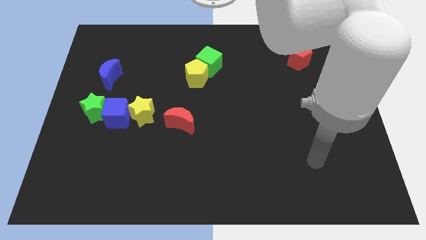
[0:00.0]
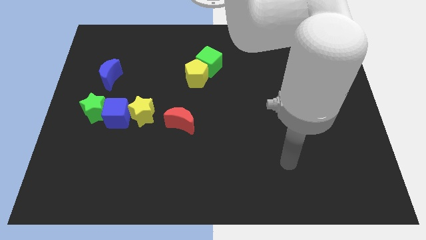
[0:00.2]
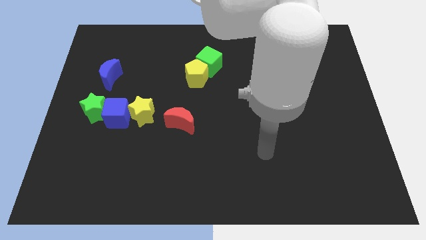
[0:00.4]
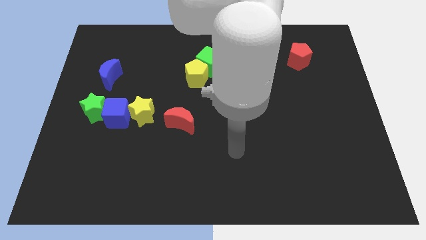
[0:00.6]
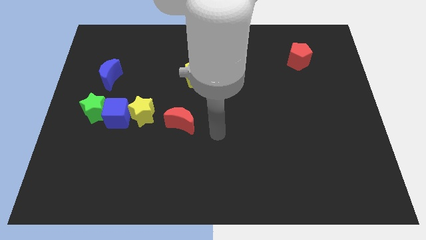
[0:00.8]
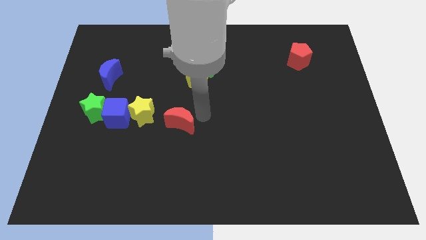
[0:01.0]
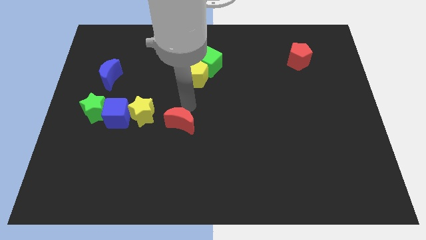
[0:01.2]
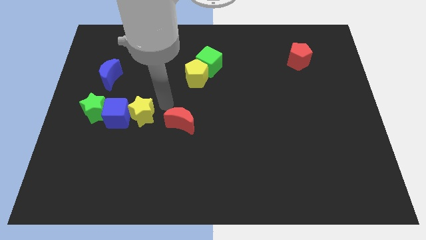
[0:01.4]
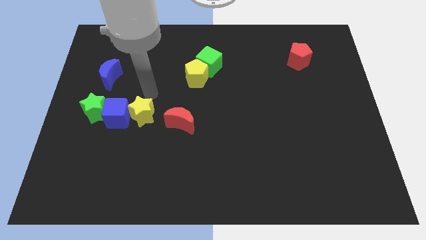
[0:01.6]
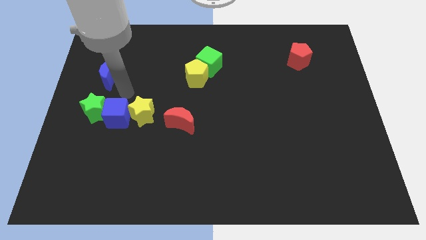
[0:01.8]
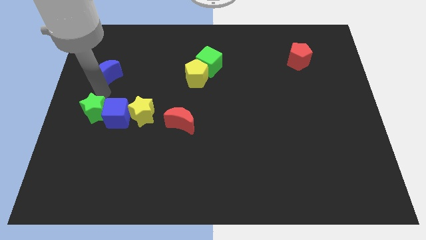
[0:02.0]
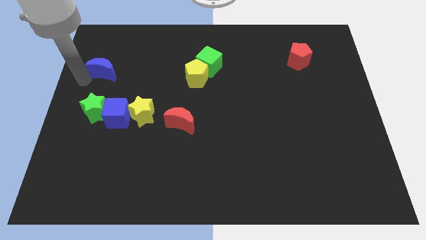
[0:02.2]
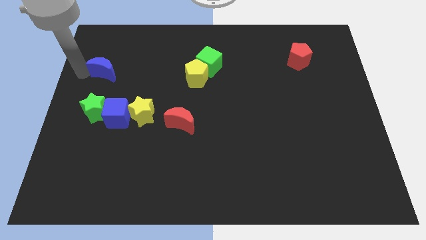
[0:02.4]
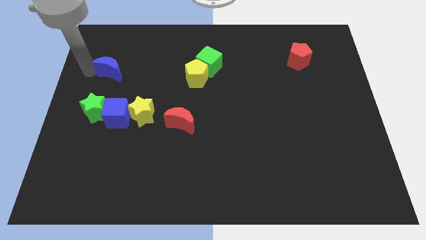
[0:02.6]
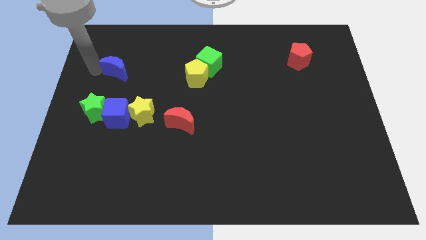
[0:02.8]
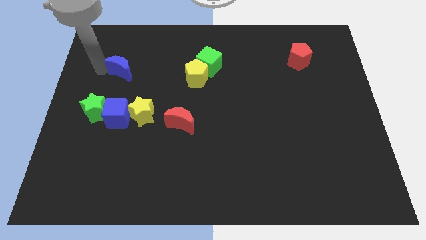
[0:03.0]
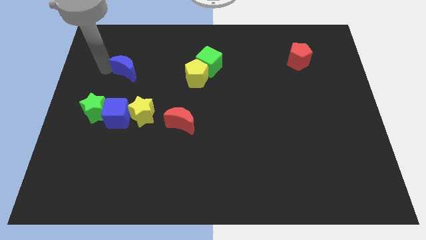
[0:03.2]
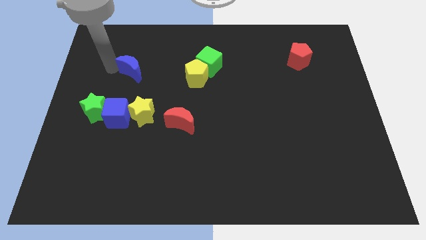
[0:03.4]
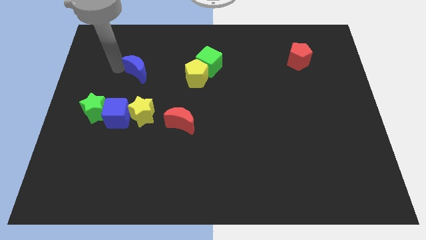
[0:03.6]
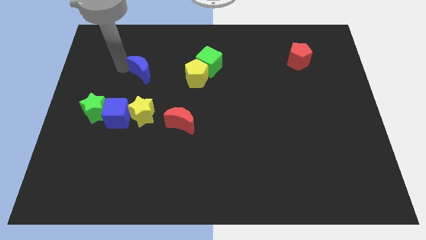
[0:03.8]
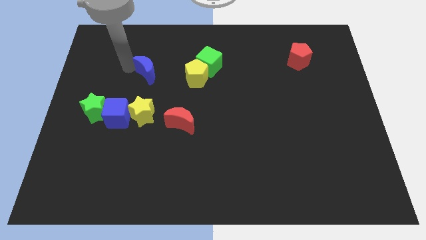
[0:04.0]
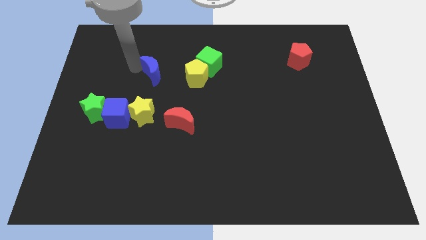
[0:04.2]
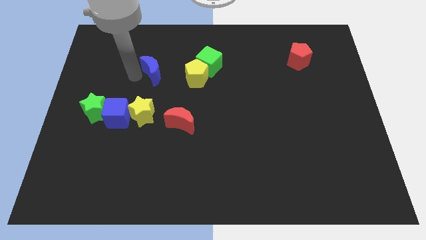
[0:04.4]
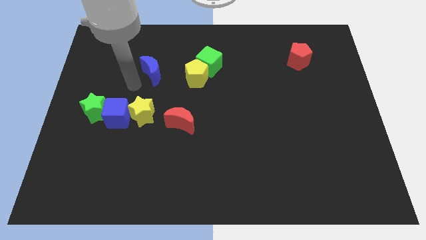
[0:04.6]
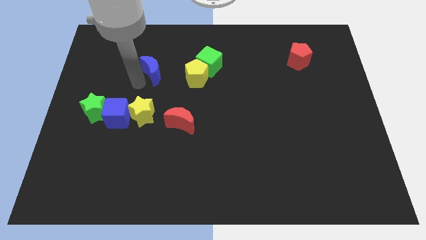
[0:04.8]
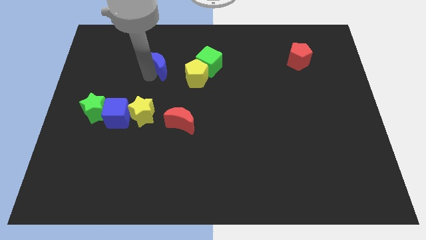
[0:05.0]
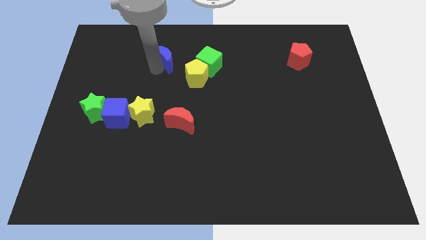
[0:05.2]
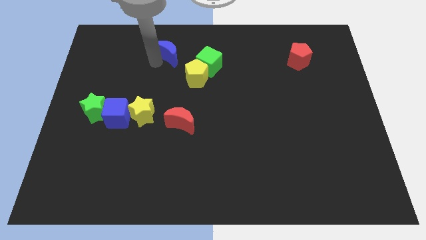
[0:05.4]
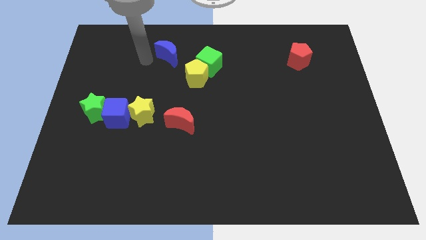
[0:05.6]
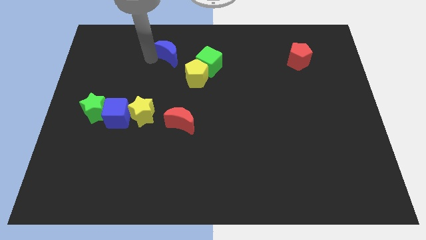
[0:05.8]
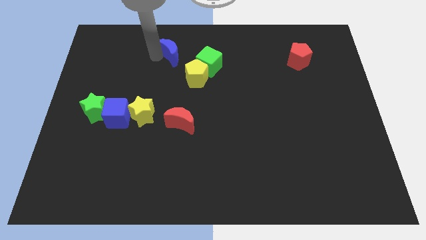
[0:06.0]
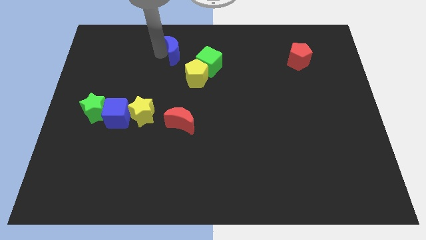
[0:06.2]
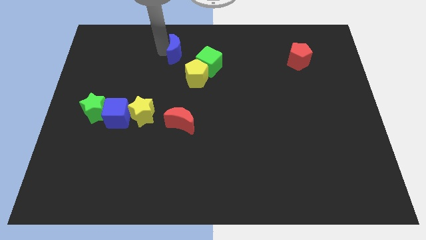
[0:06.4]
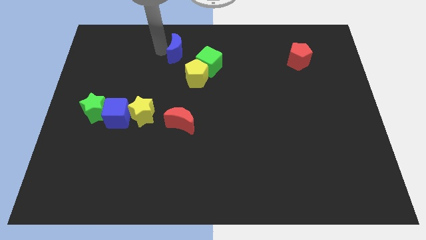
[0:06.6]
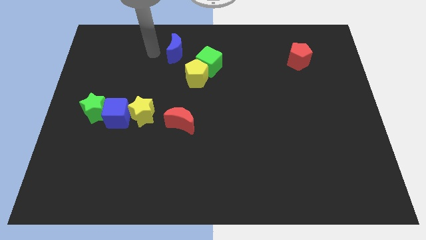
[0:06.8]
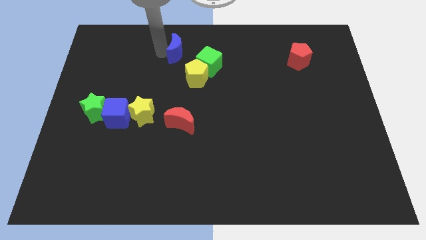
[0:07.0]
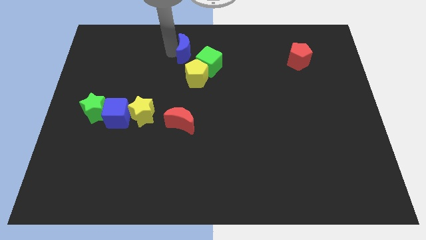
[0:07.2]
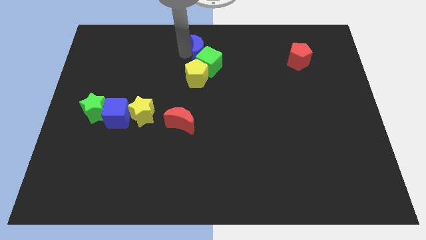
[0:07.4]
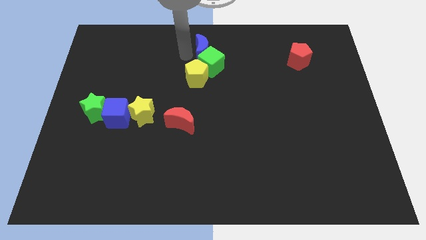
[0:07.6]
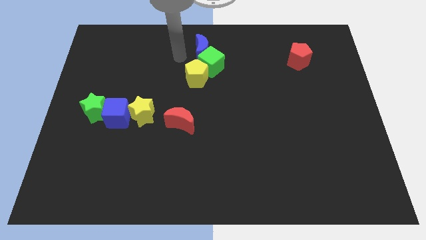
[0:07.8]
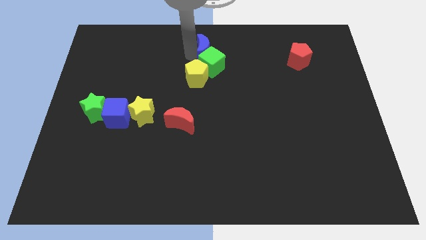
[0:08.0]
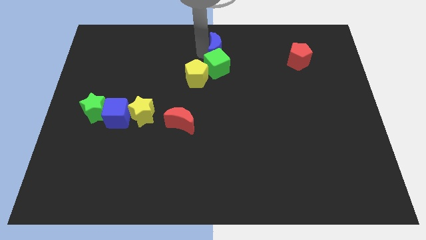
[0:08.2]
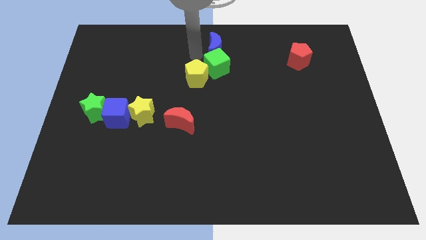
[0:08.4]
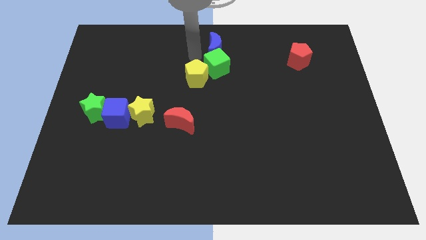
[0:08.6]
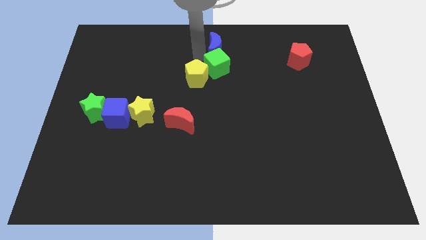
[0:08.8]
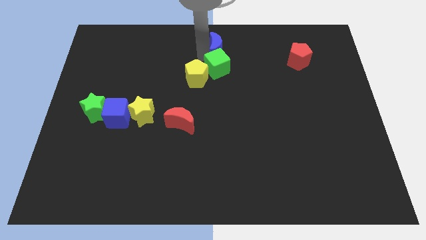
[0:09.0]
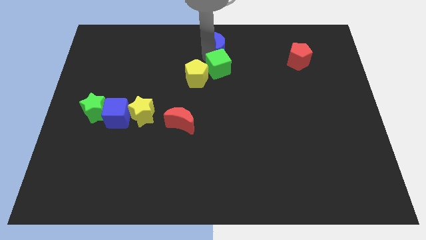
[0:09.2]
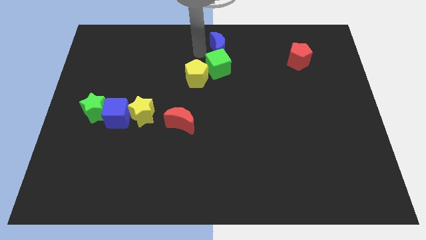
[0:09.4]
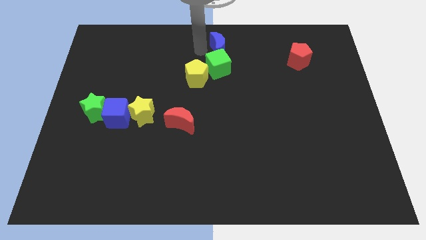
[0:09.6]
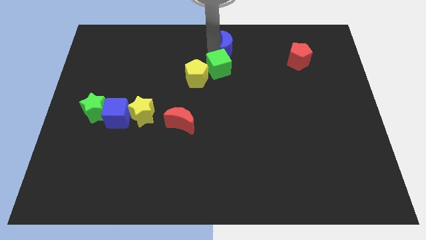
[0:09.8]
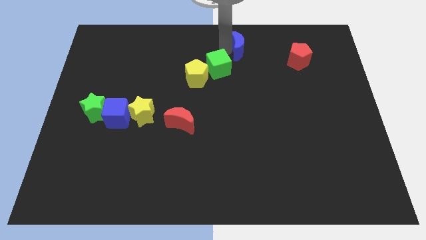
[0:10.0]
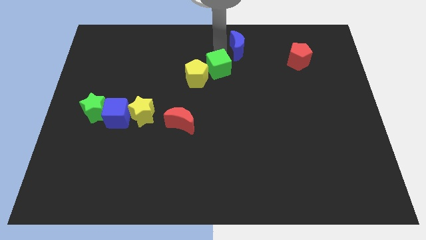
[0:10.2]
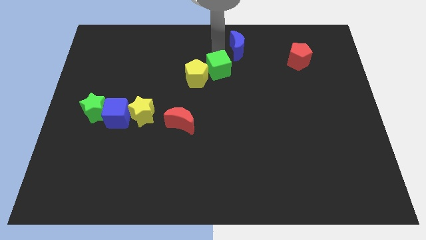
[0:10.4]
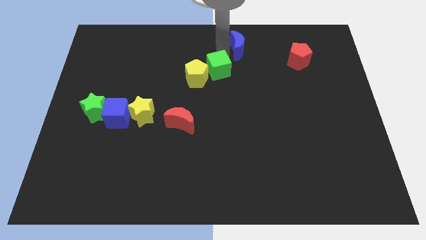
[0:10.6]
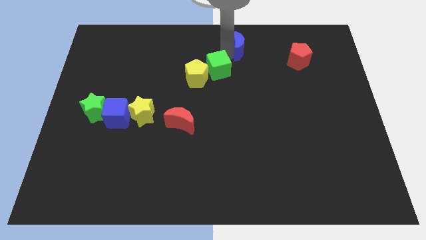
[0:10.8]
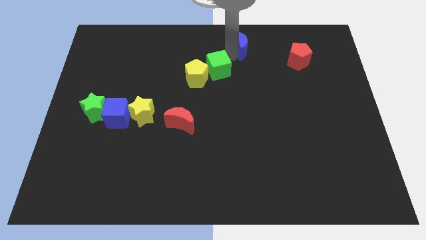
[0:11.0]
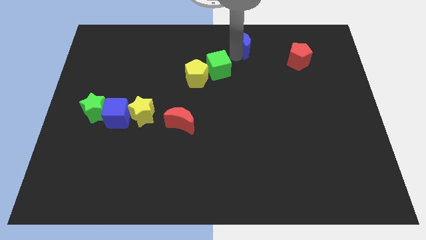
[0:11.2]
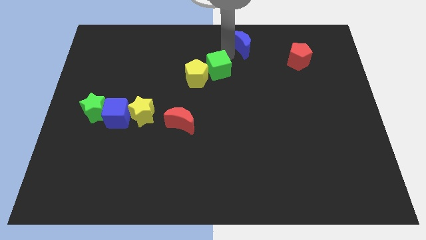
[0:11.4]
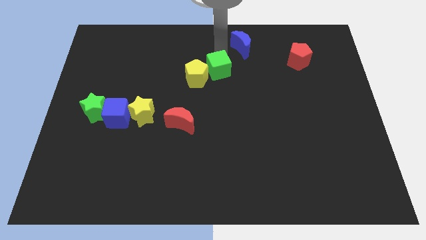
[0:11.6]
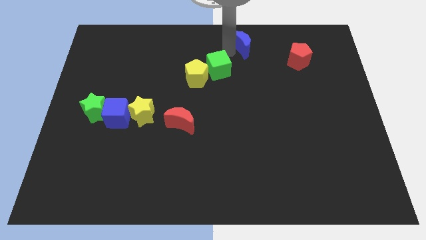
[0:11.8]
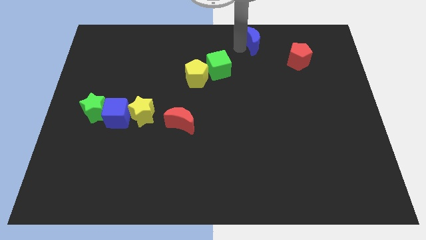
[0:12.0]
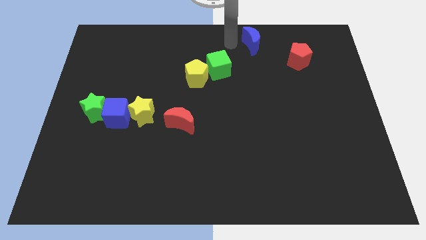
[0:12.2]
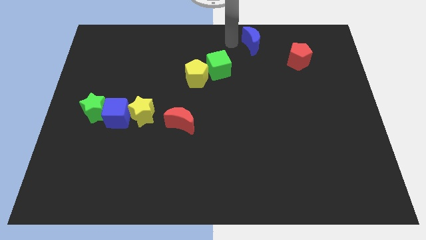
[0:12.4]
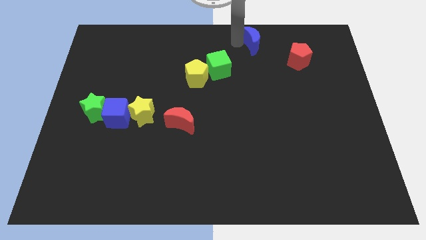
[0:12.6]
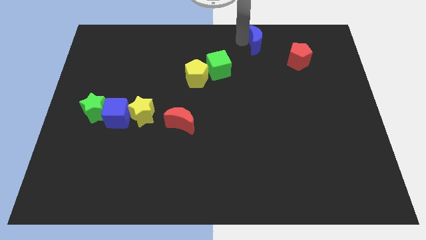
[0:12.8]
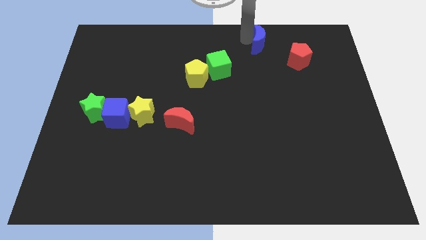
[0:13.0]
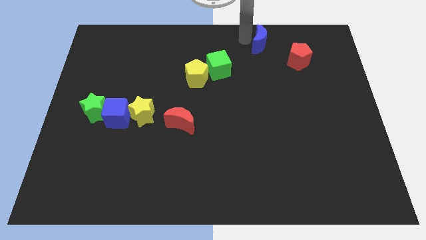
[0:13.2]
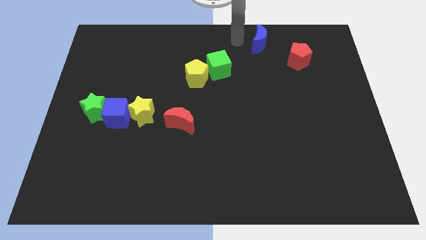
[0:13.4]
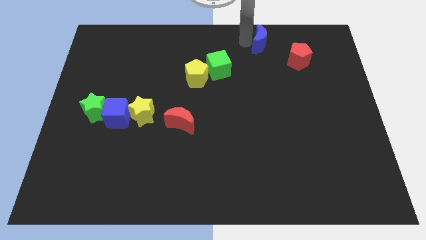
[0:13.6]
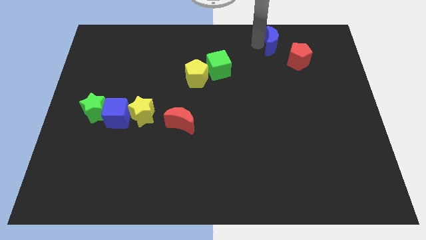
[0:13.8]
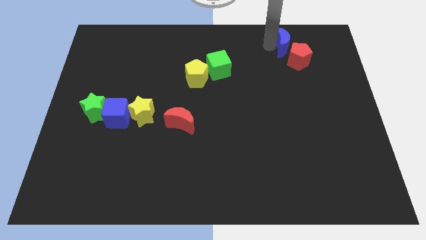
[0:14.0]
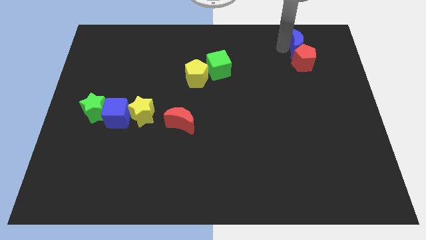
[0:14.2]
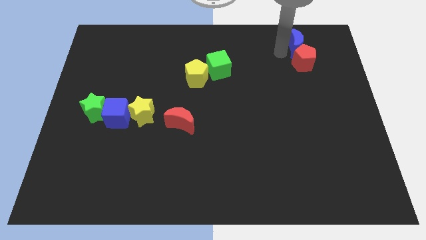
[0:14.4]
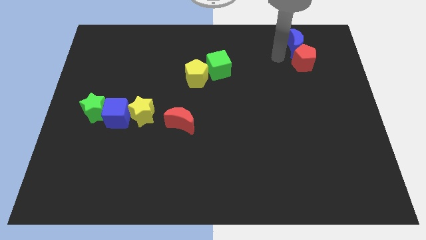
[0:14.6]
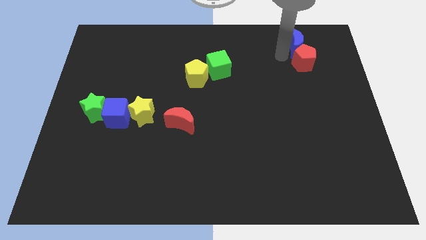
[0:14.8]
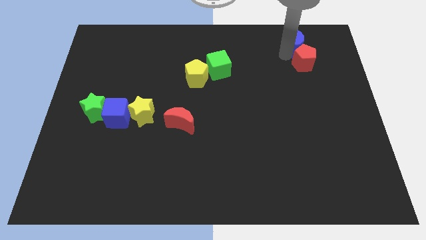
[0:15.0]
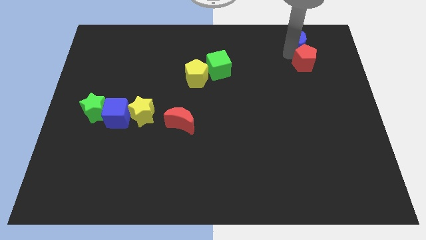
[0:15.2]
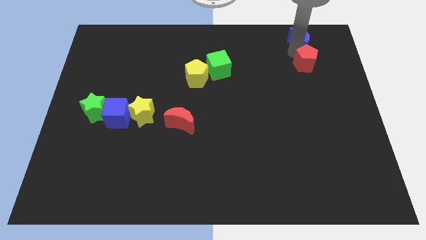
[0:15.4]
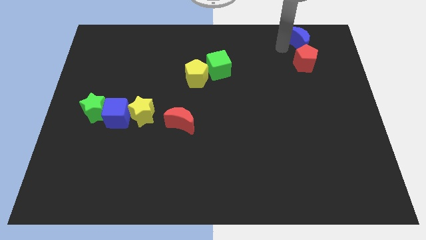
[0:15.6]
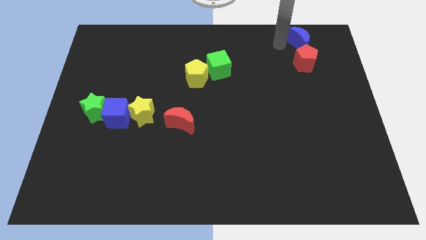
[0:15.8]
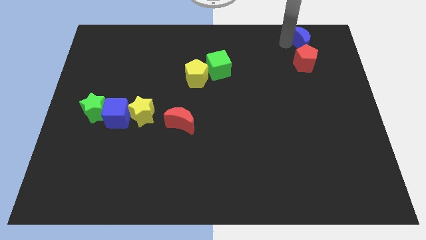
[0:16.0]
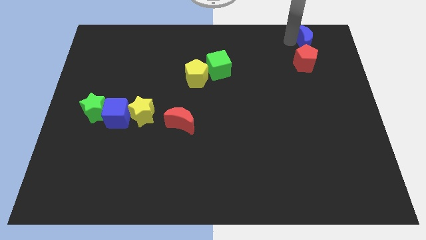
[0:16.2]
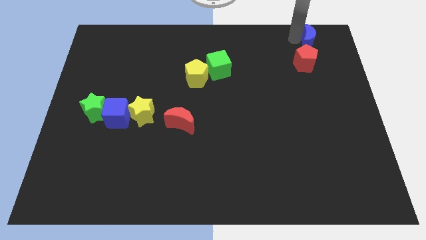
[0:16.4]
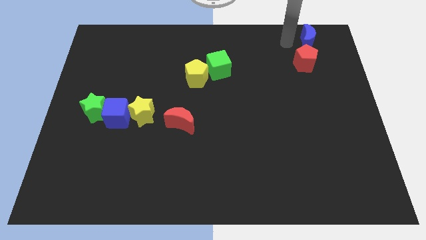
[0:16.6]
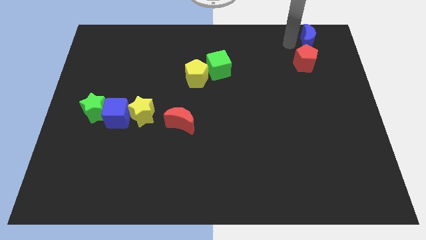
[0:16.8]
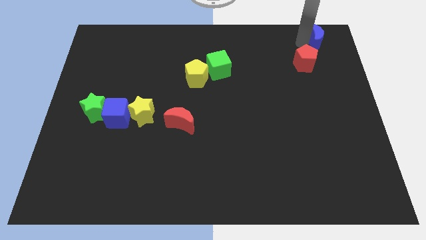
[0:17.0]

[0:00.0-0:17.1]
move the blue moon to the top right corner
